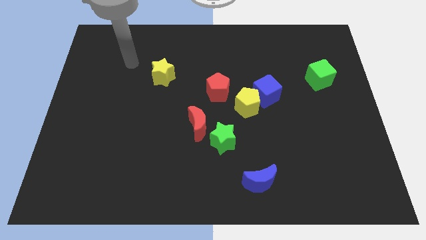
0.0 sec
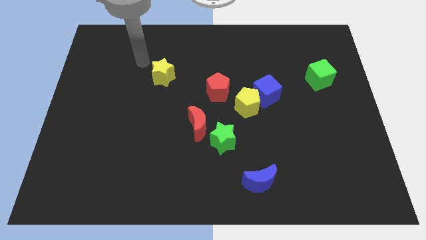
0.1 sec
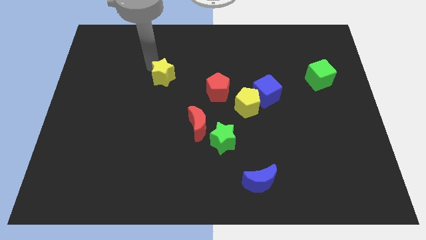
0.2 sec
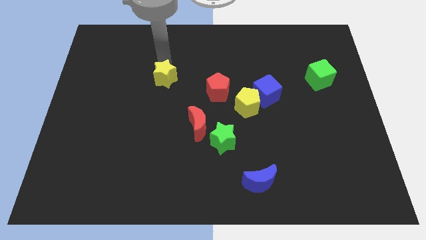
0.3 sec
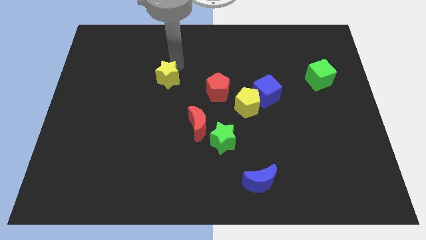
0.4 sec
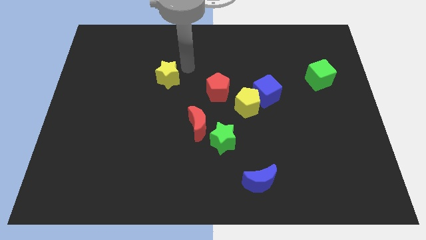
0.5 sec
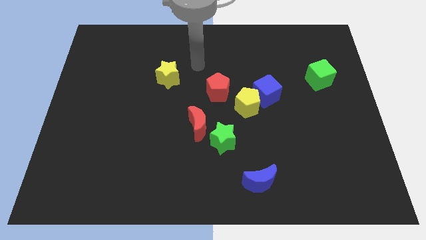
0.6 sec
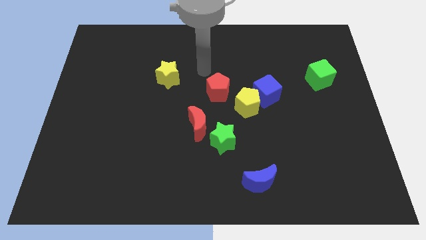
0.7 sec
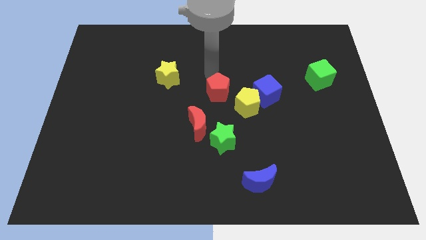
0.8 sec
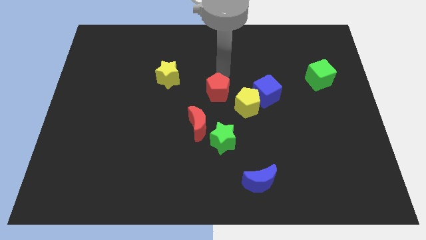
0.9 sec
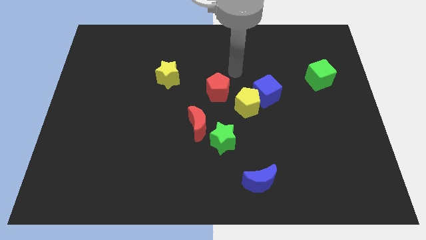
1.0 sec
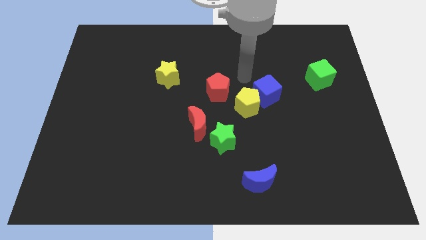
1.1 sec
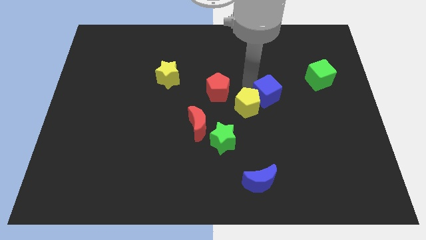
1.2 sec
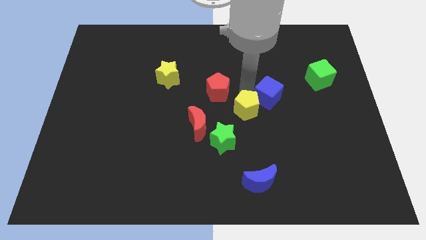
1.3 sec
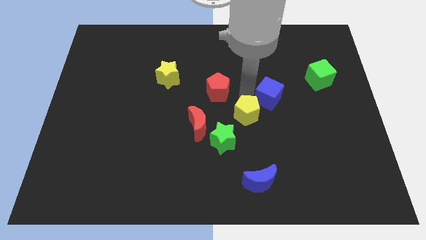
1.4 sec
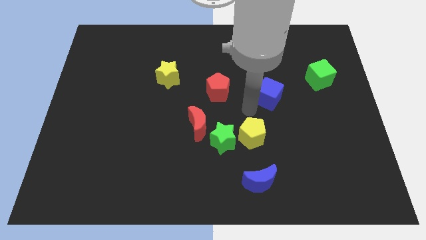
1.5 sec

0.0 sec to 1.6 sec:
separate the blue cube from the yellow pentagon

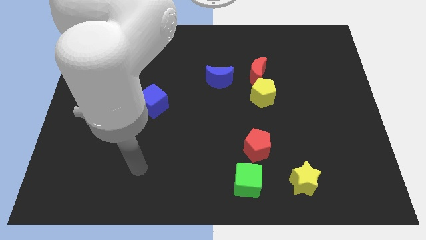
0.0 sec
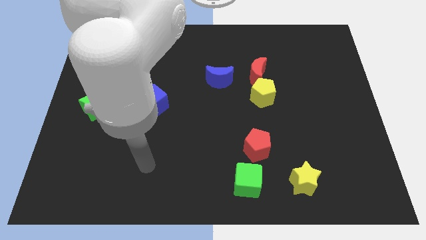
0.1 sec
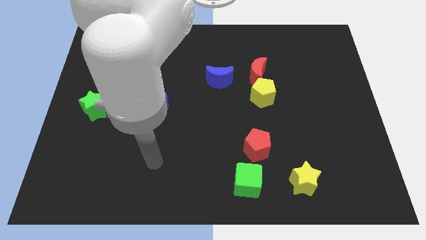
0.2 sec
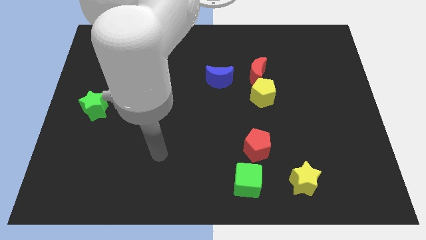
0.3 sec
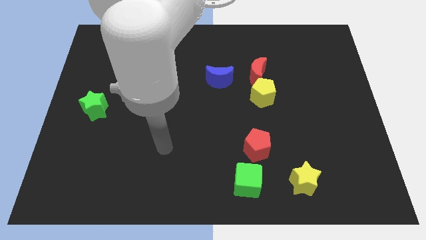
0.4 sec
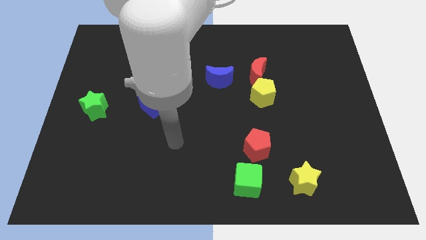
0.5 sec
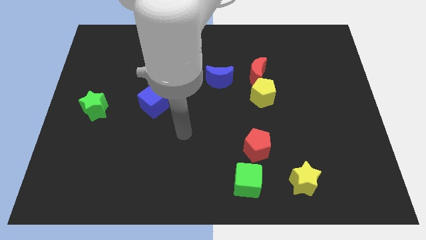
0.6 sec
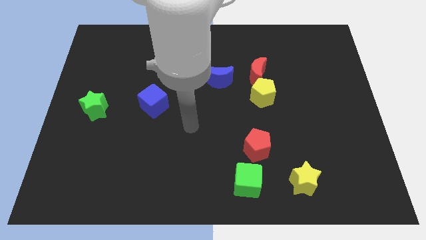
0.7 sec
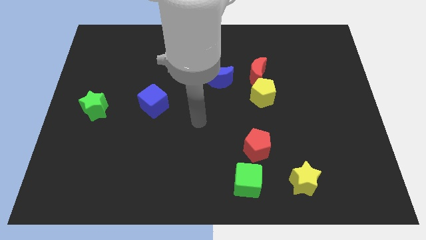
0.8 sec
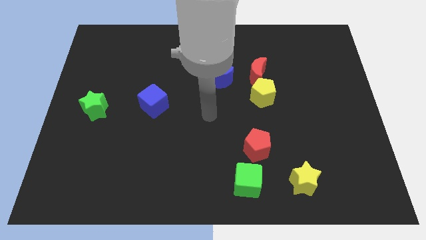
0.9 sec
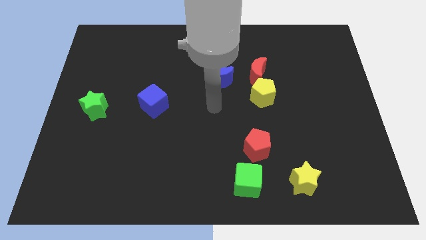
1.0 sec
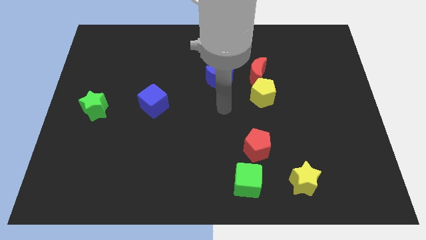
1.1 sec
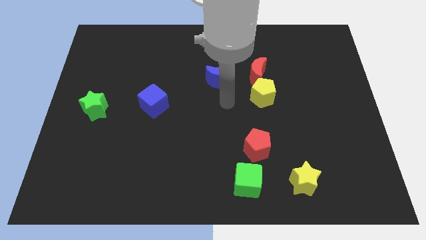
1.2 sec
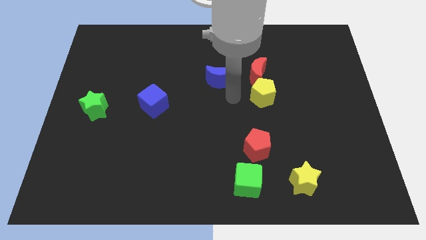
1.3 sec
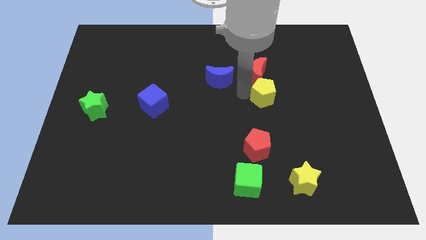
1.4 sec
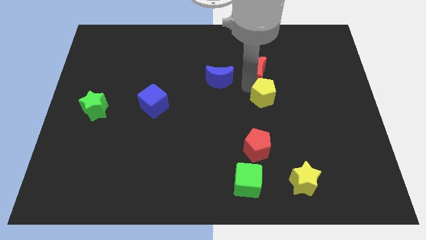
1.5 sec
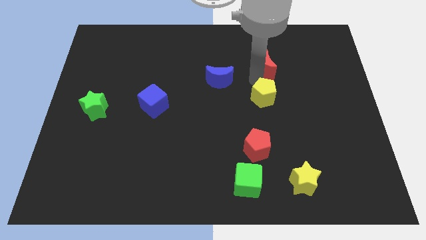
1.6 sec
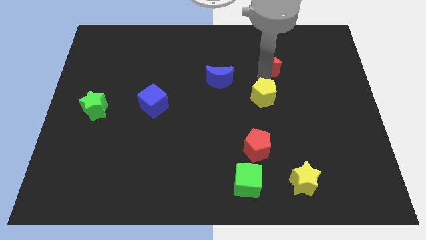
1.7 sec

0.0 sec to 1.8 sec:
separate the yellow pentagon from the red moon

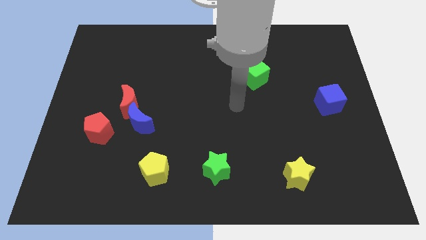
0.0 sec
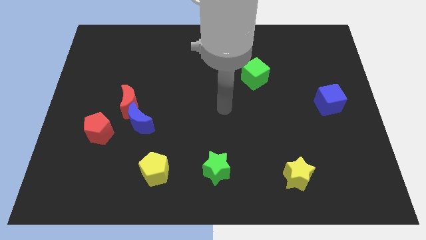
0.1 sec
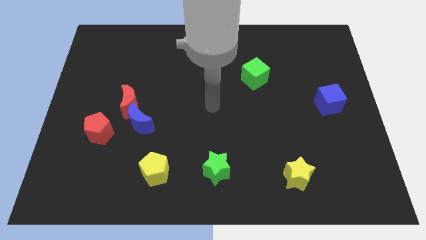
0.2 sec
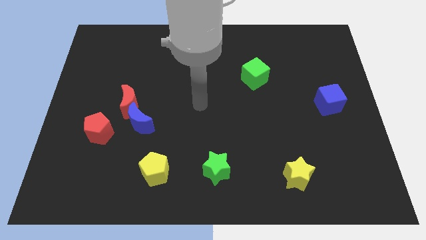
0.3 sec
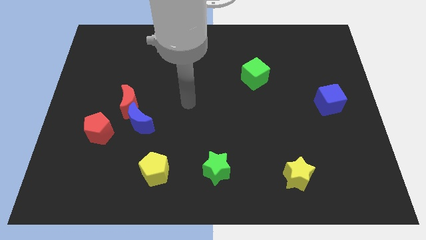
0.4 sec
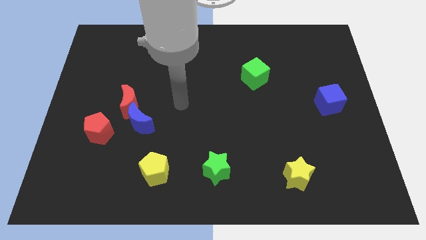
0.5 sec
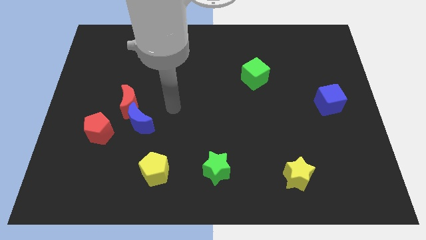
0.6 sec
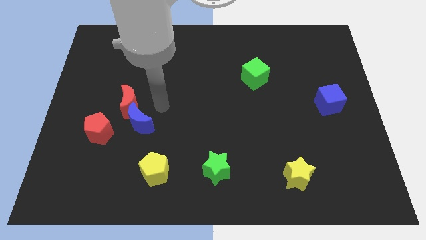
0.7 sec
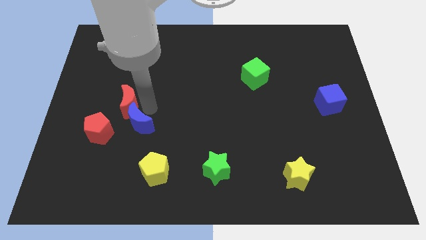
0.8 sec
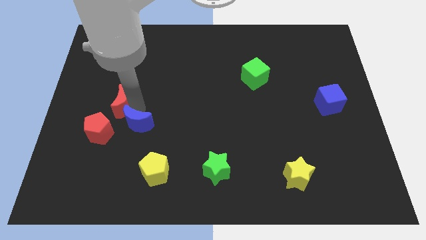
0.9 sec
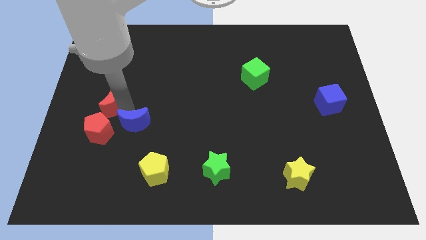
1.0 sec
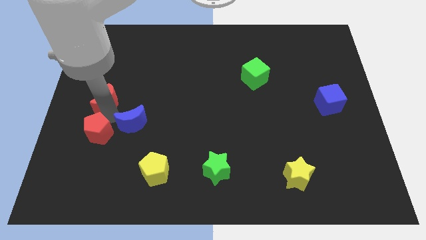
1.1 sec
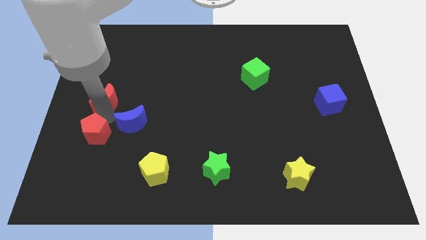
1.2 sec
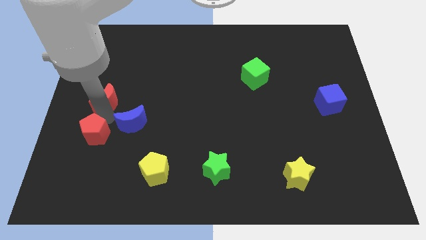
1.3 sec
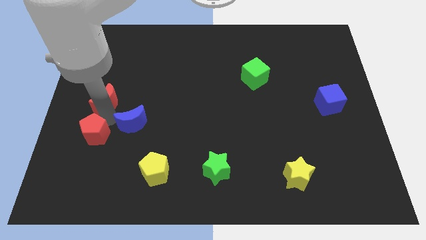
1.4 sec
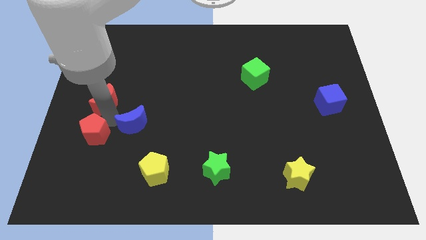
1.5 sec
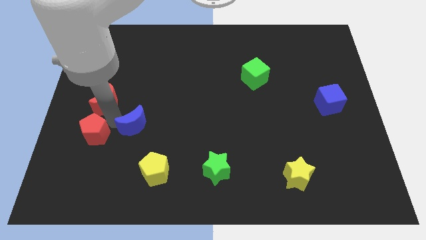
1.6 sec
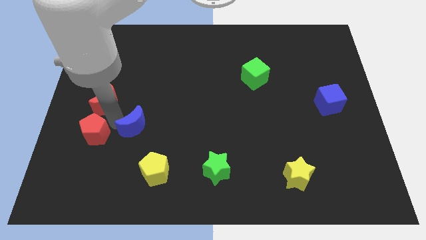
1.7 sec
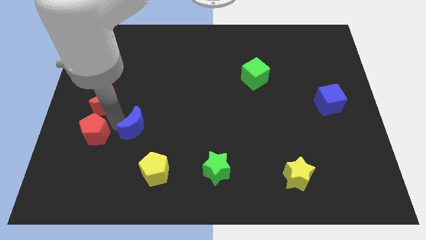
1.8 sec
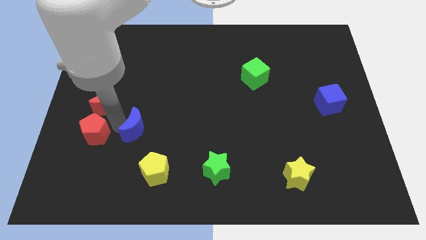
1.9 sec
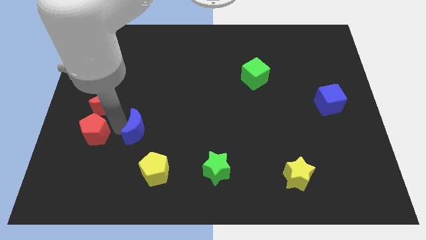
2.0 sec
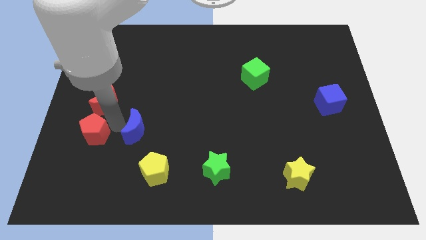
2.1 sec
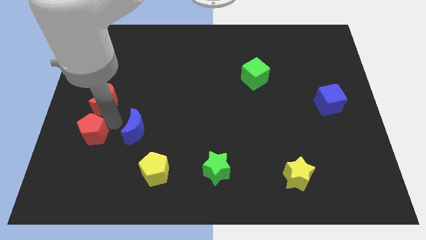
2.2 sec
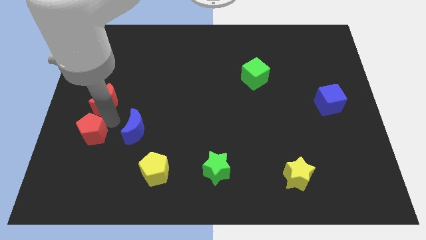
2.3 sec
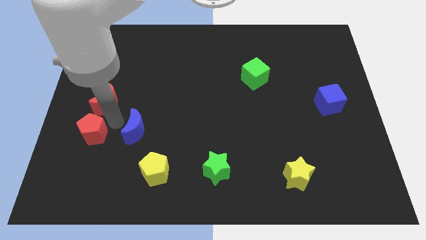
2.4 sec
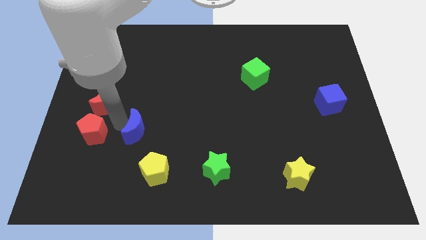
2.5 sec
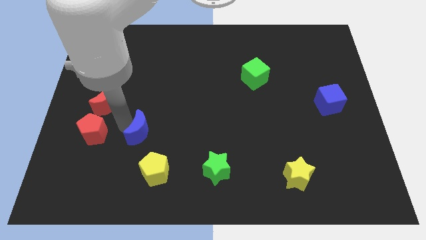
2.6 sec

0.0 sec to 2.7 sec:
pull the blue moon apart from the red moon and red pentagon

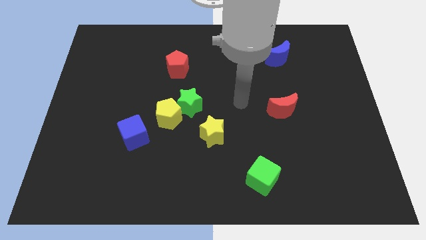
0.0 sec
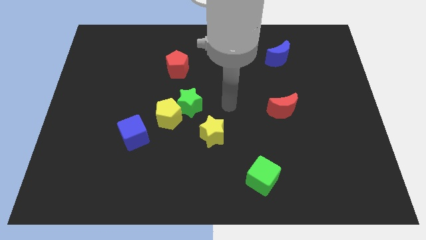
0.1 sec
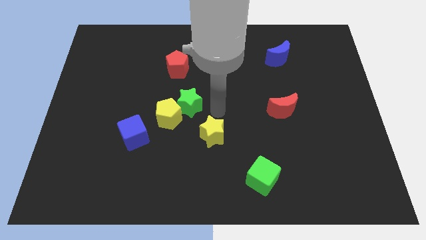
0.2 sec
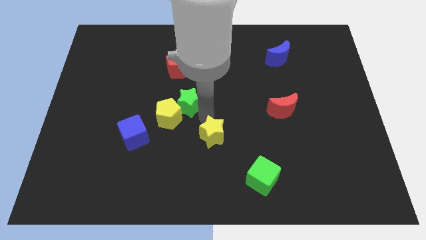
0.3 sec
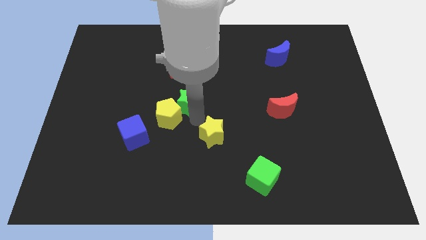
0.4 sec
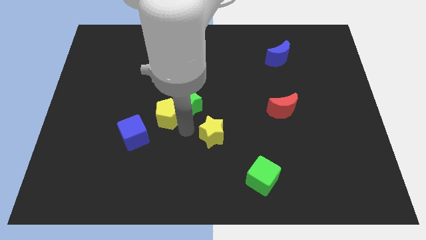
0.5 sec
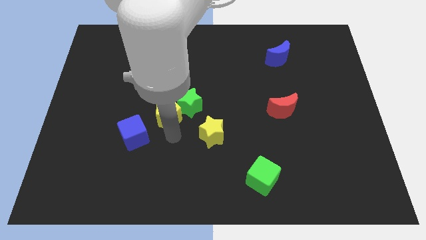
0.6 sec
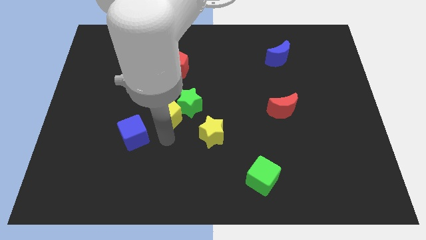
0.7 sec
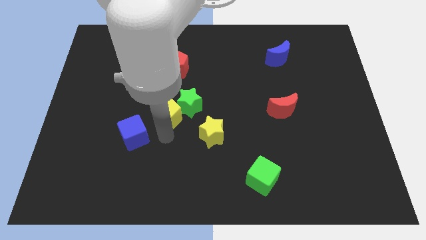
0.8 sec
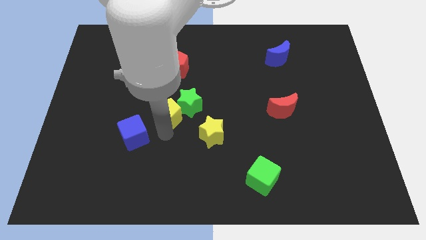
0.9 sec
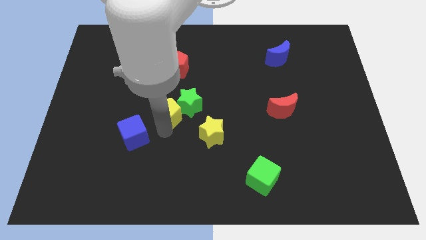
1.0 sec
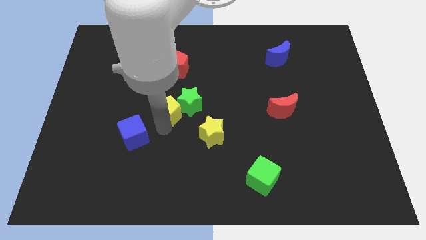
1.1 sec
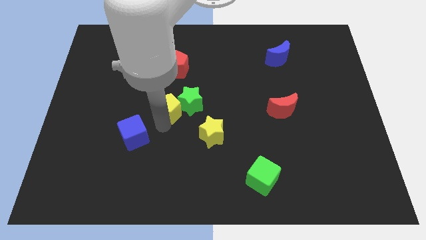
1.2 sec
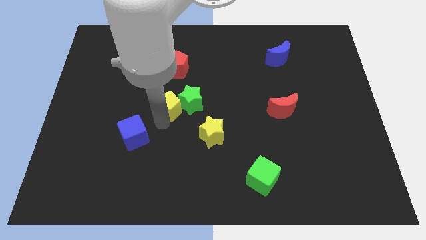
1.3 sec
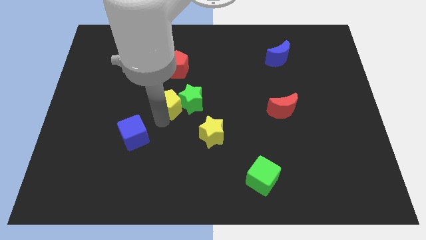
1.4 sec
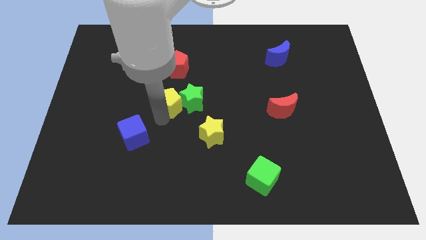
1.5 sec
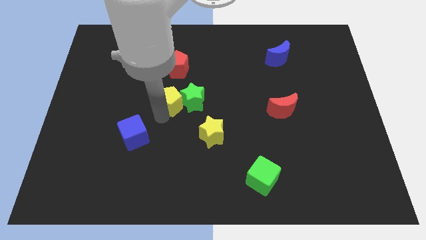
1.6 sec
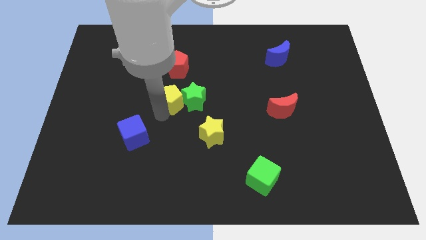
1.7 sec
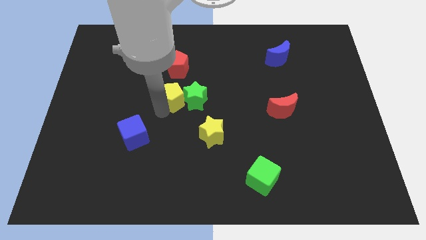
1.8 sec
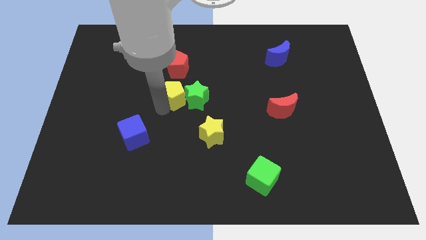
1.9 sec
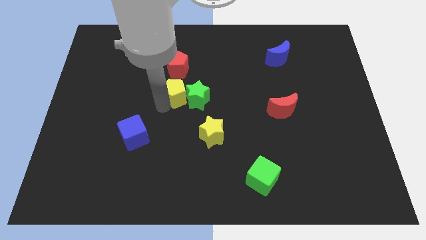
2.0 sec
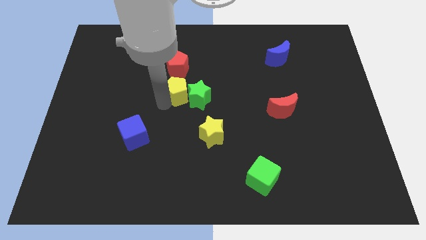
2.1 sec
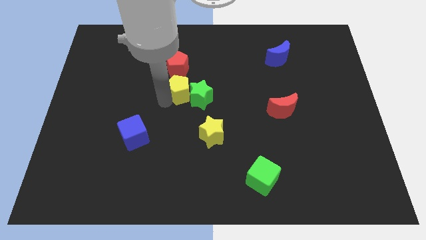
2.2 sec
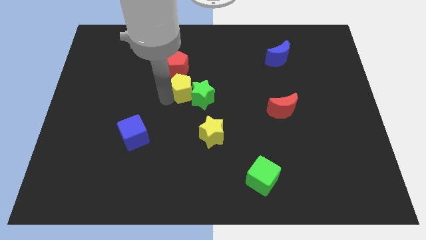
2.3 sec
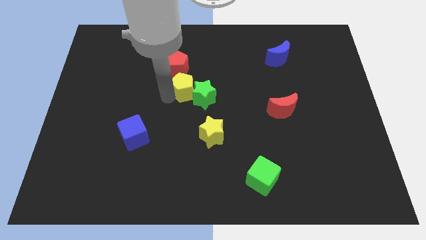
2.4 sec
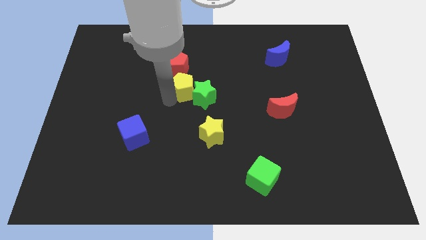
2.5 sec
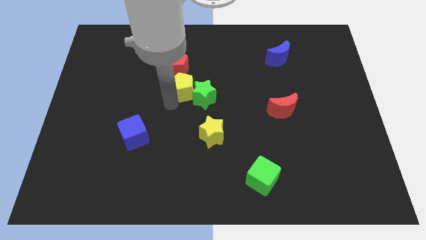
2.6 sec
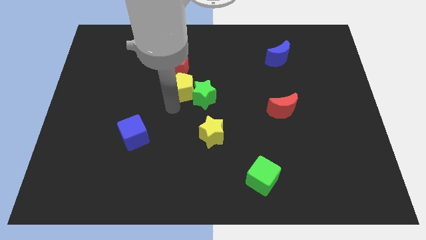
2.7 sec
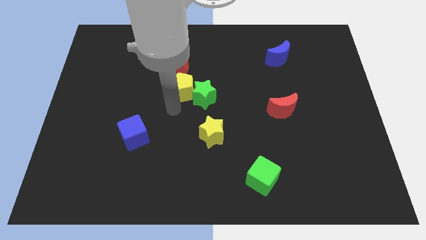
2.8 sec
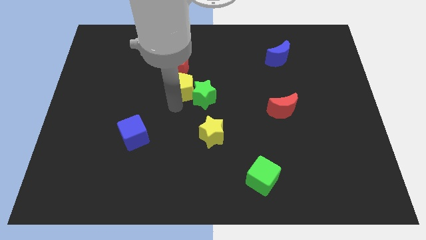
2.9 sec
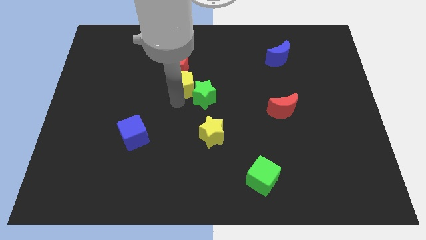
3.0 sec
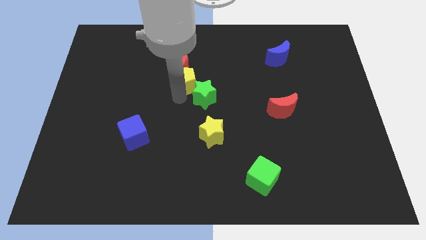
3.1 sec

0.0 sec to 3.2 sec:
pull the yellow pentagon apart from the green star and blue cube

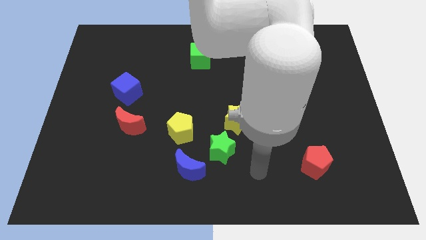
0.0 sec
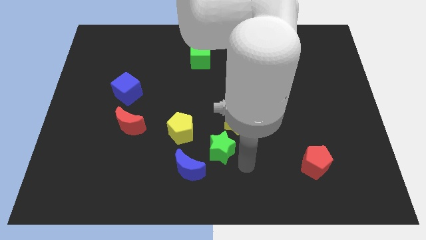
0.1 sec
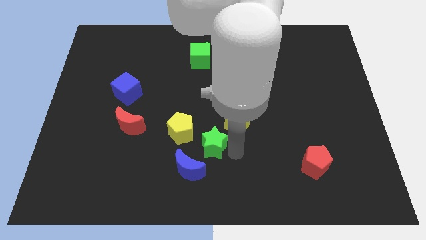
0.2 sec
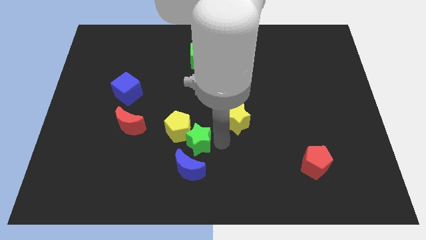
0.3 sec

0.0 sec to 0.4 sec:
separate the yellow star from the green star
